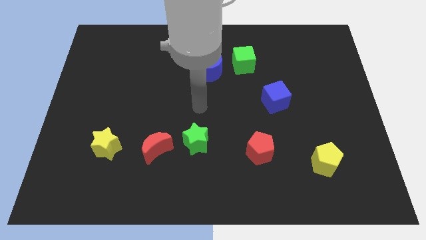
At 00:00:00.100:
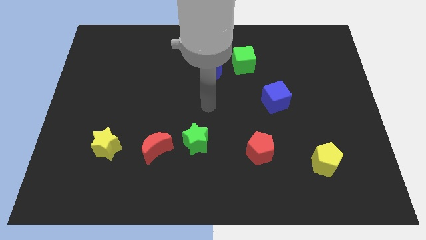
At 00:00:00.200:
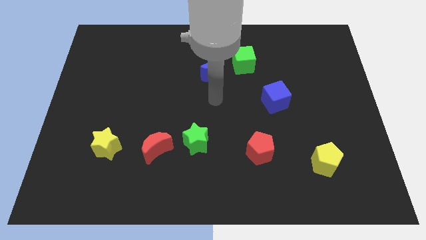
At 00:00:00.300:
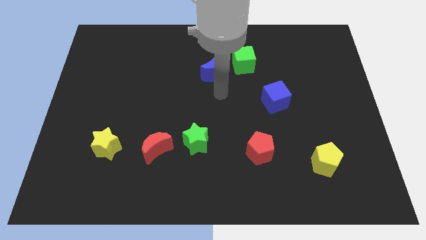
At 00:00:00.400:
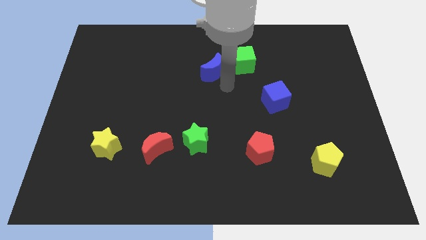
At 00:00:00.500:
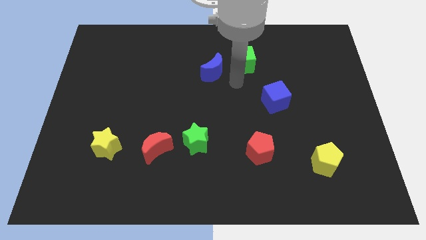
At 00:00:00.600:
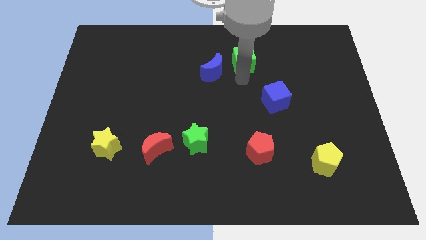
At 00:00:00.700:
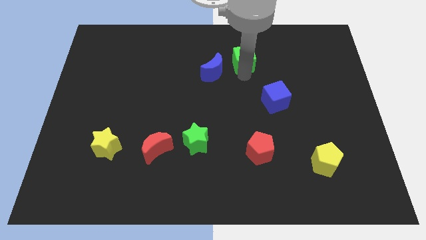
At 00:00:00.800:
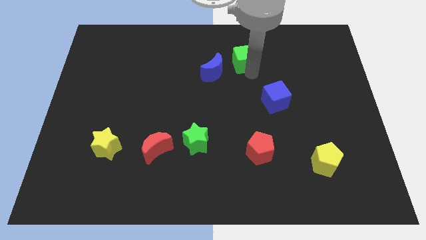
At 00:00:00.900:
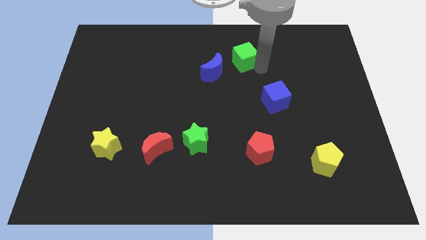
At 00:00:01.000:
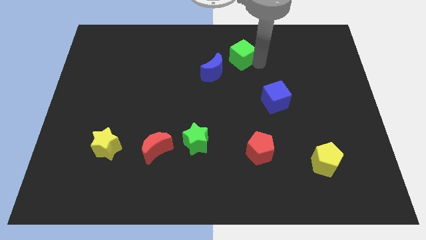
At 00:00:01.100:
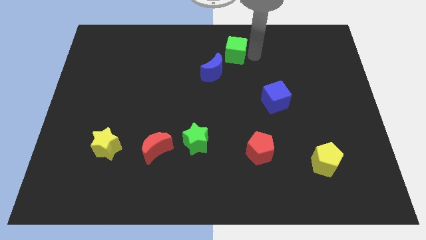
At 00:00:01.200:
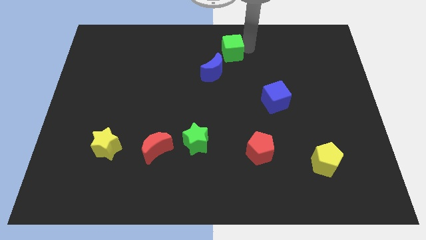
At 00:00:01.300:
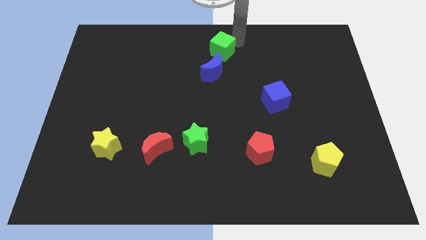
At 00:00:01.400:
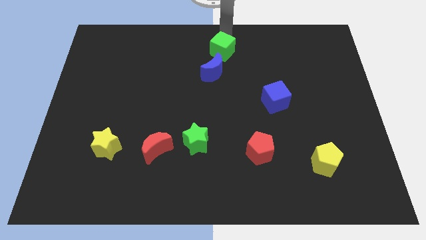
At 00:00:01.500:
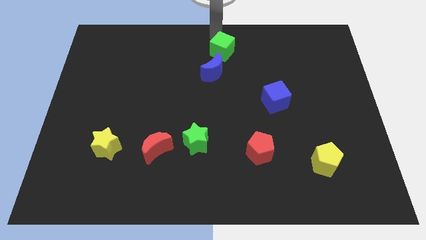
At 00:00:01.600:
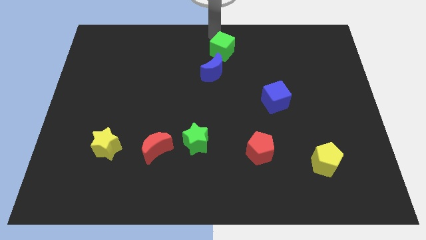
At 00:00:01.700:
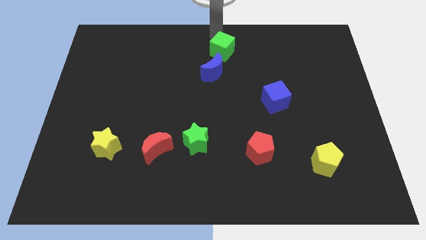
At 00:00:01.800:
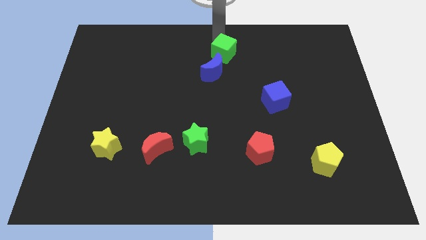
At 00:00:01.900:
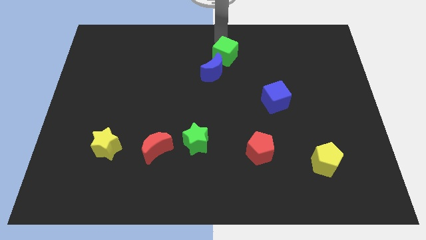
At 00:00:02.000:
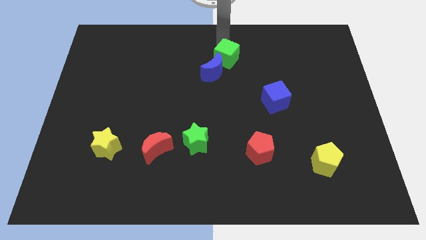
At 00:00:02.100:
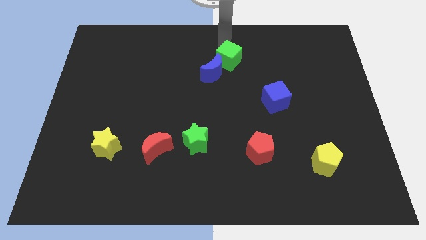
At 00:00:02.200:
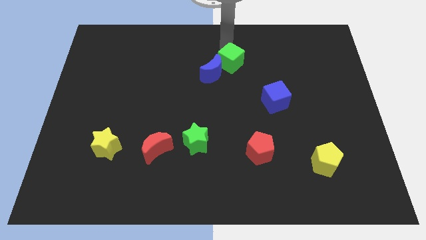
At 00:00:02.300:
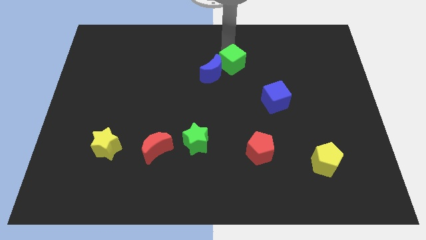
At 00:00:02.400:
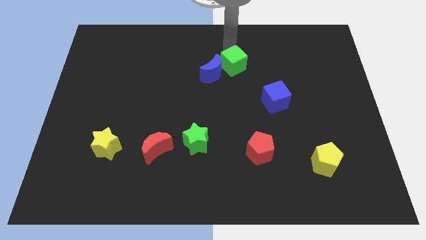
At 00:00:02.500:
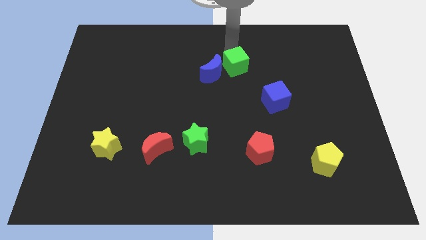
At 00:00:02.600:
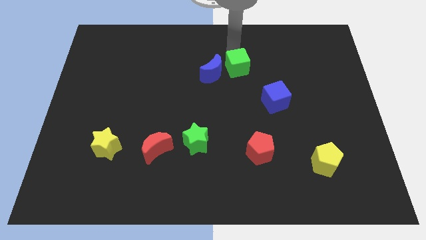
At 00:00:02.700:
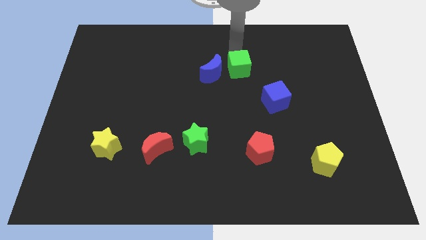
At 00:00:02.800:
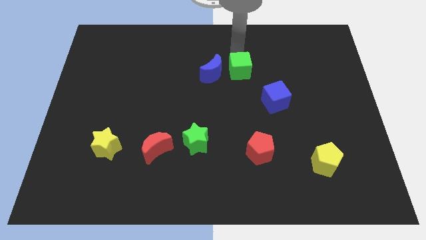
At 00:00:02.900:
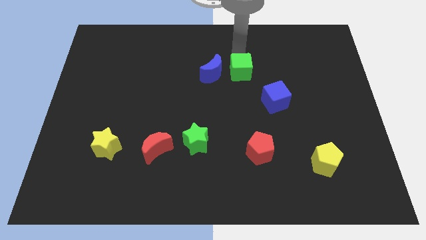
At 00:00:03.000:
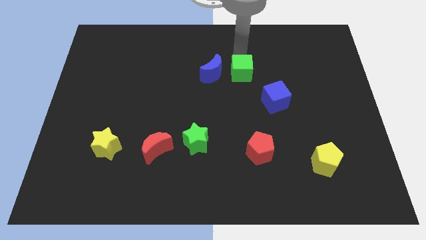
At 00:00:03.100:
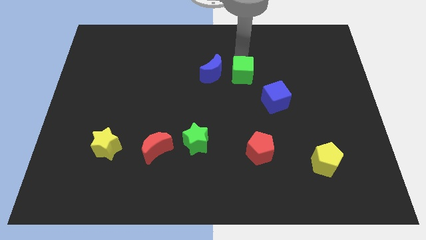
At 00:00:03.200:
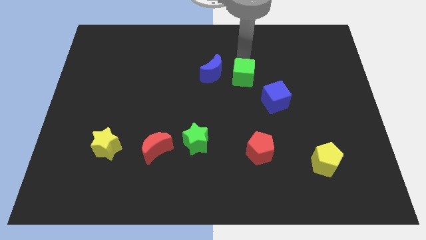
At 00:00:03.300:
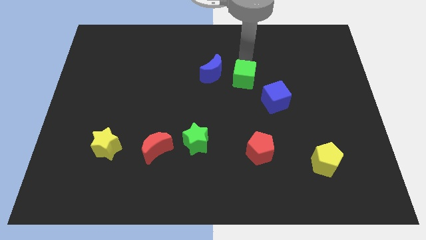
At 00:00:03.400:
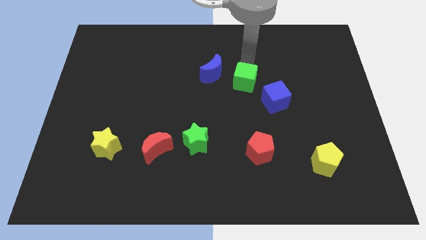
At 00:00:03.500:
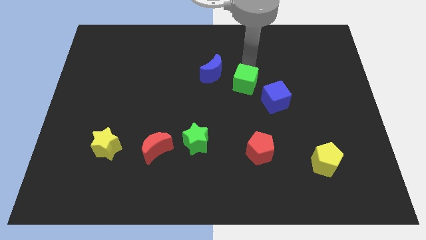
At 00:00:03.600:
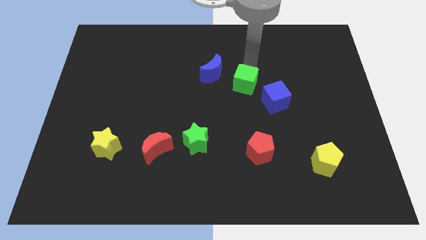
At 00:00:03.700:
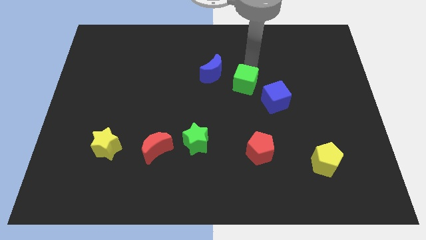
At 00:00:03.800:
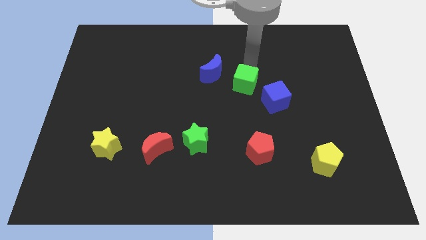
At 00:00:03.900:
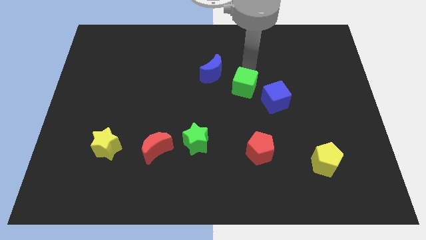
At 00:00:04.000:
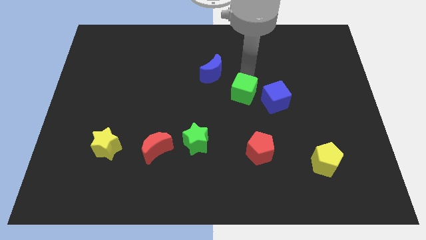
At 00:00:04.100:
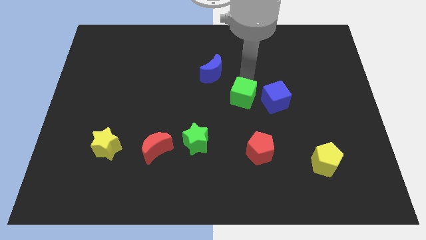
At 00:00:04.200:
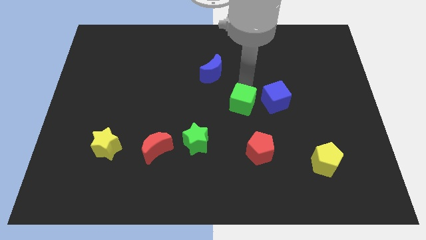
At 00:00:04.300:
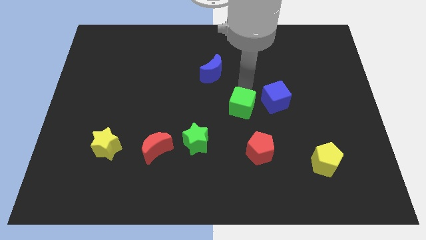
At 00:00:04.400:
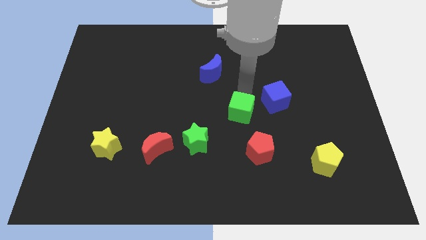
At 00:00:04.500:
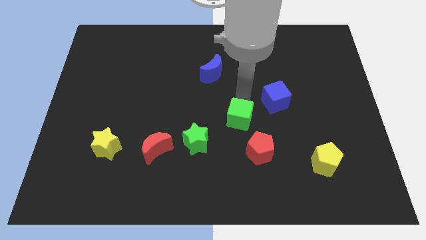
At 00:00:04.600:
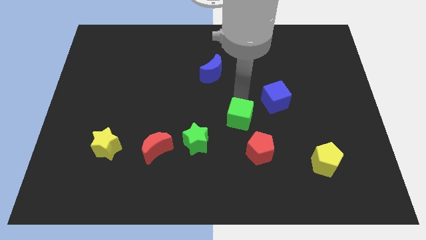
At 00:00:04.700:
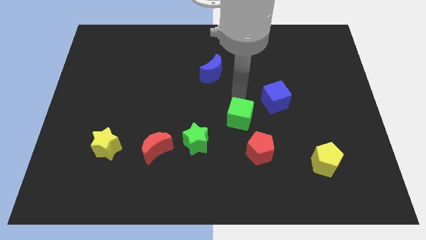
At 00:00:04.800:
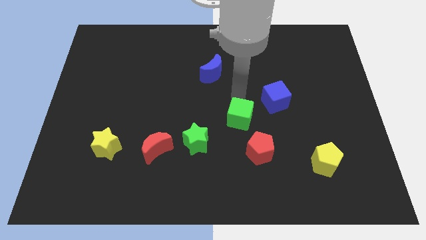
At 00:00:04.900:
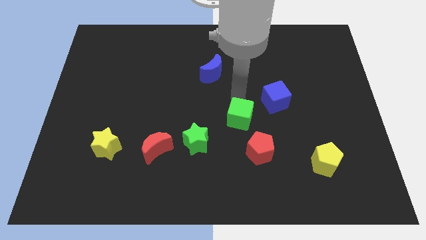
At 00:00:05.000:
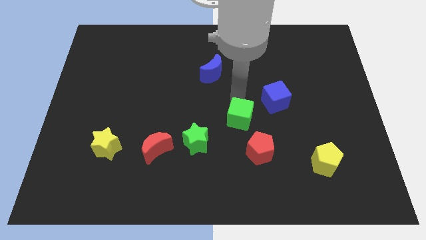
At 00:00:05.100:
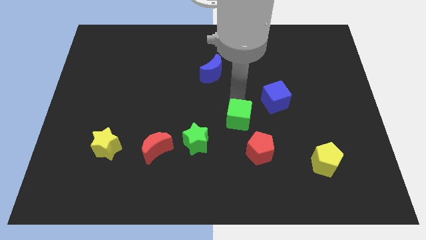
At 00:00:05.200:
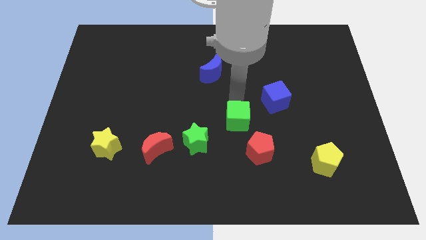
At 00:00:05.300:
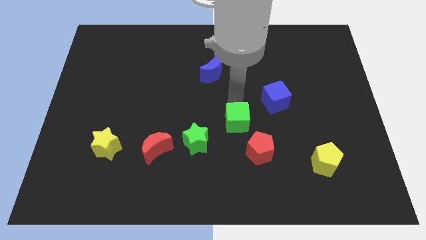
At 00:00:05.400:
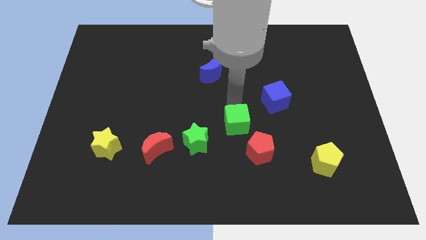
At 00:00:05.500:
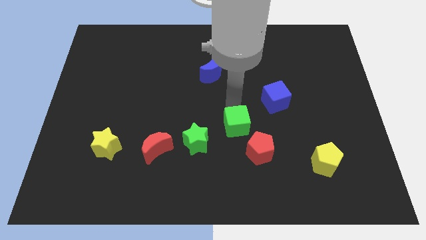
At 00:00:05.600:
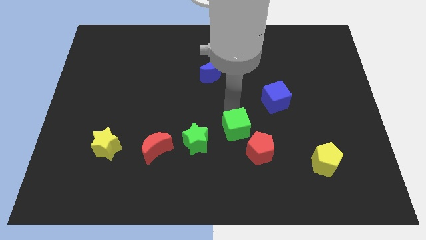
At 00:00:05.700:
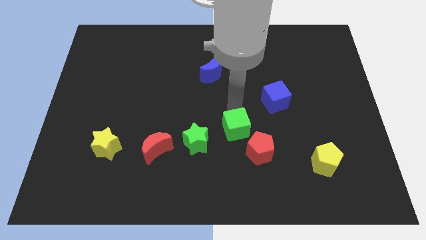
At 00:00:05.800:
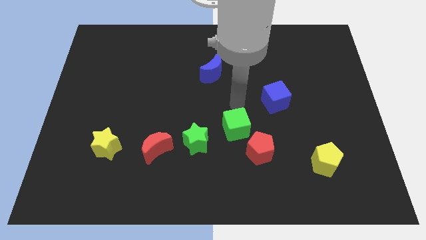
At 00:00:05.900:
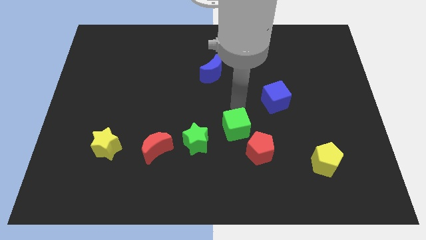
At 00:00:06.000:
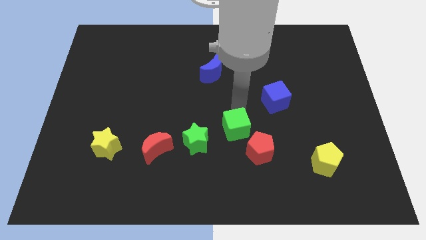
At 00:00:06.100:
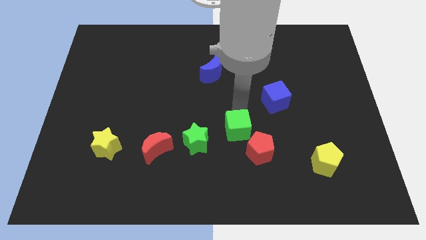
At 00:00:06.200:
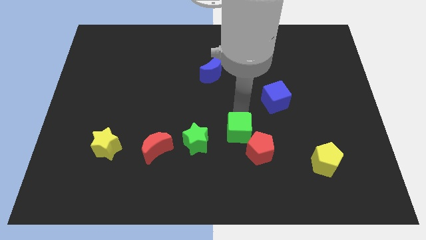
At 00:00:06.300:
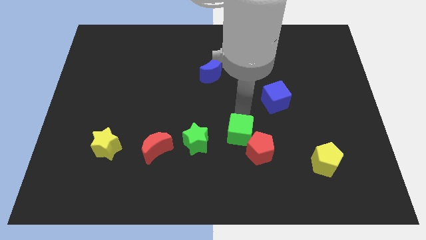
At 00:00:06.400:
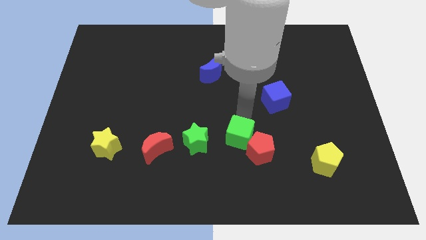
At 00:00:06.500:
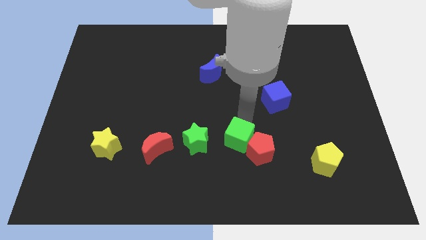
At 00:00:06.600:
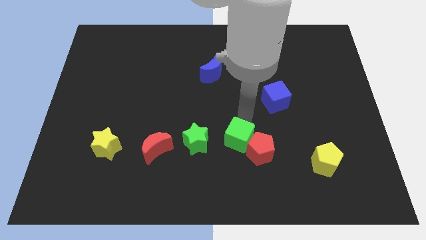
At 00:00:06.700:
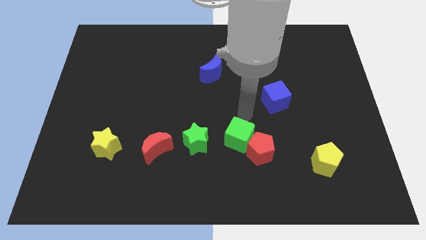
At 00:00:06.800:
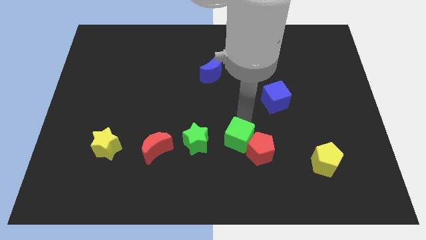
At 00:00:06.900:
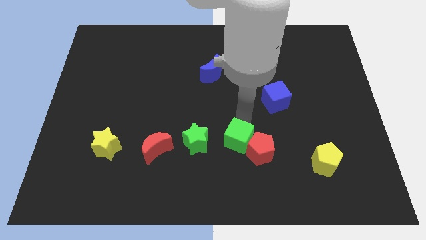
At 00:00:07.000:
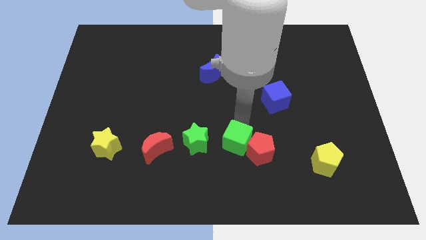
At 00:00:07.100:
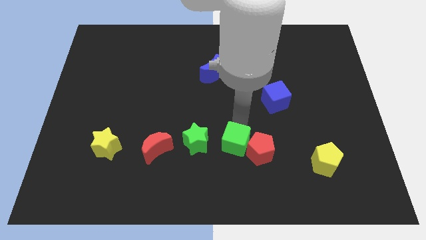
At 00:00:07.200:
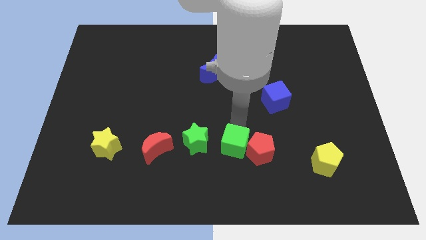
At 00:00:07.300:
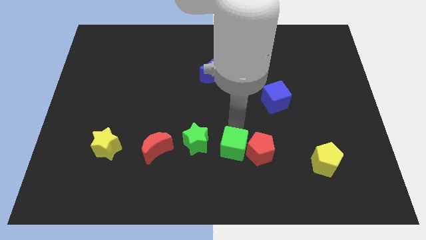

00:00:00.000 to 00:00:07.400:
move the green cube diagonally down and to the left of the red pentagon

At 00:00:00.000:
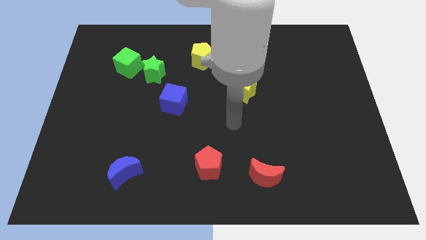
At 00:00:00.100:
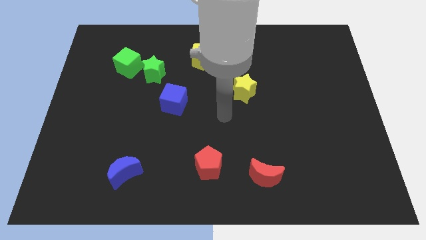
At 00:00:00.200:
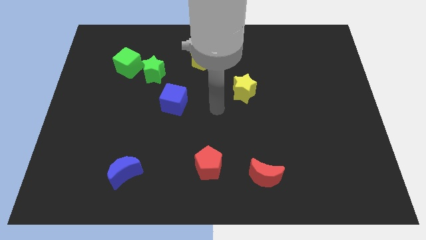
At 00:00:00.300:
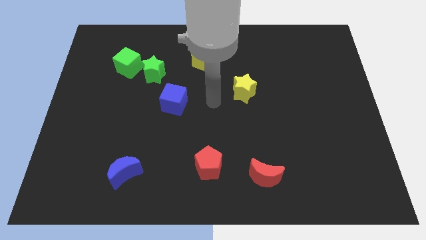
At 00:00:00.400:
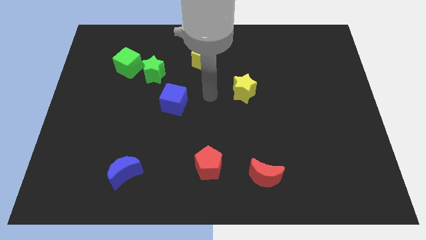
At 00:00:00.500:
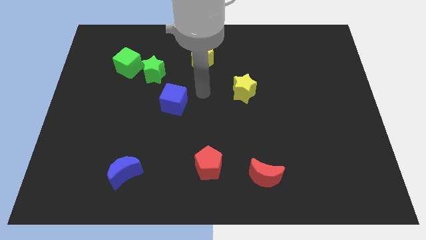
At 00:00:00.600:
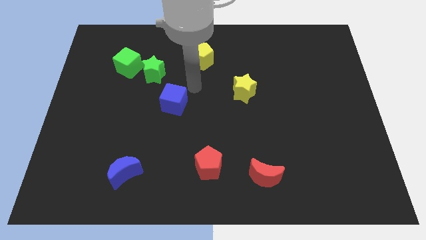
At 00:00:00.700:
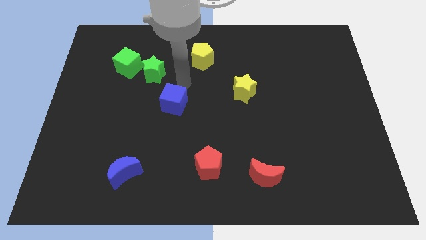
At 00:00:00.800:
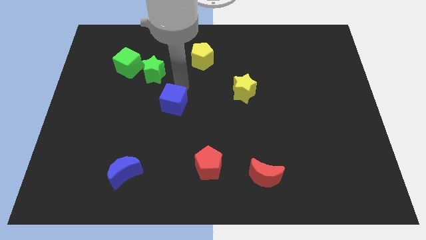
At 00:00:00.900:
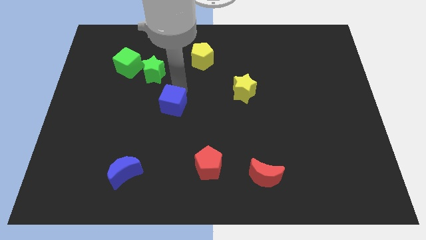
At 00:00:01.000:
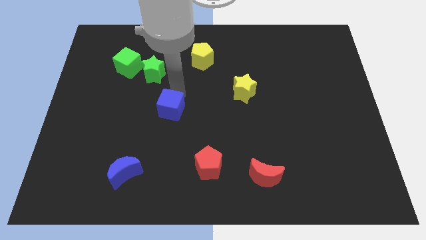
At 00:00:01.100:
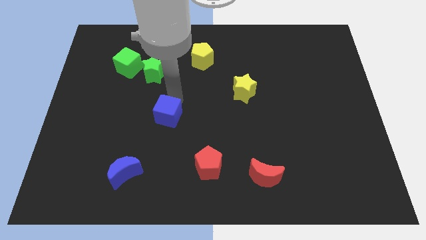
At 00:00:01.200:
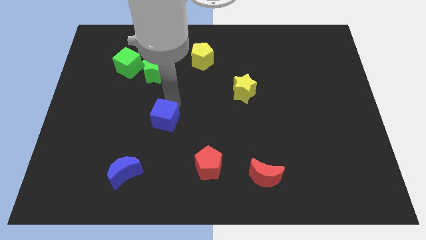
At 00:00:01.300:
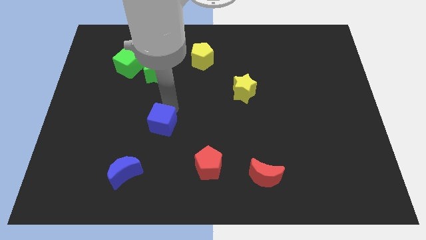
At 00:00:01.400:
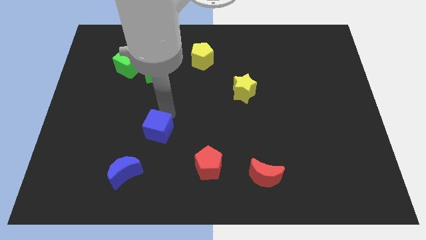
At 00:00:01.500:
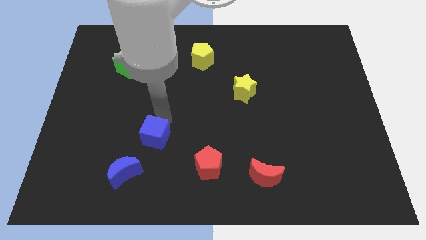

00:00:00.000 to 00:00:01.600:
slide the blue cube to the top right side of the blue moon
